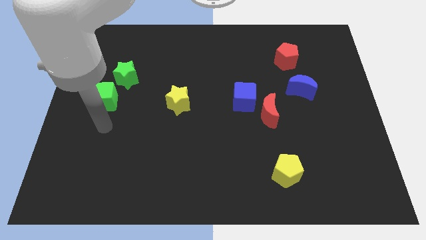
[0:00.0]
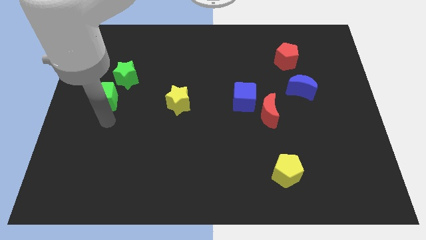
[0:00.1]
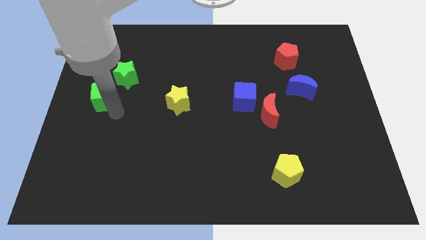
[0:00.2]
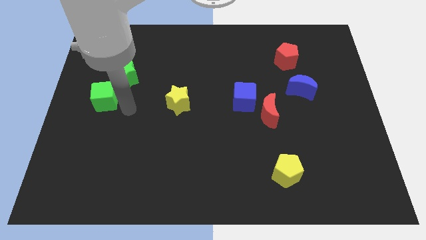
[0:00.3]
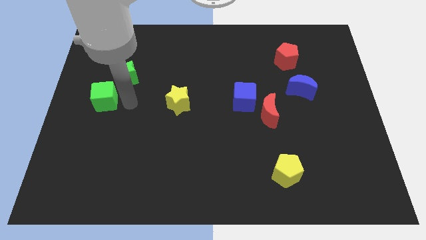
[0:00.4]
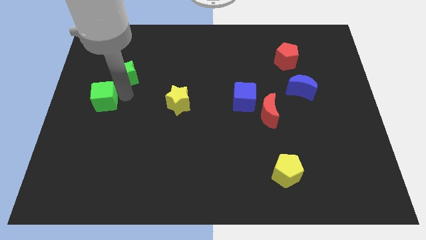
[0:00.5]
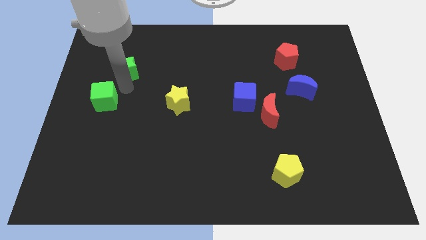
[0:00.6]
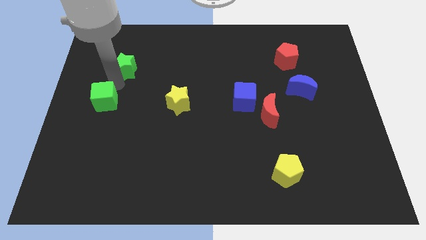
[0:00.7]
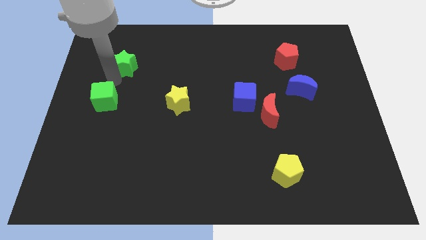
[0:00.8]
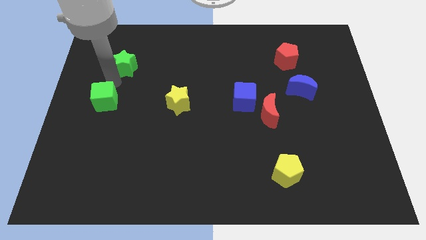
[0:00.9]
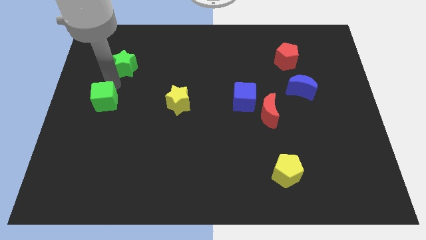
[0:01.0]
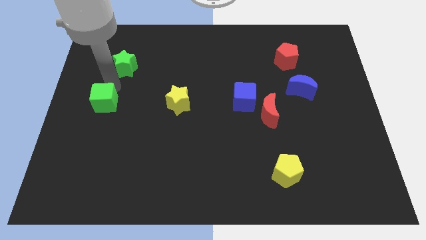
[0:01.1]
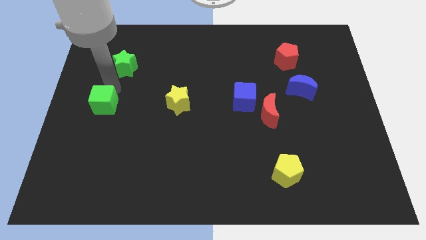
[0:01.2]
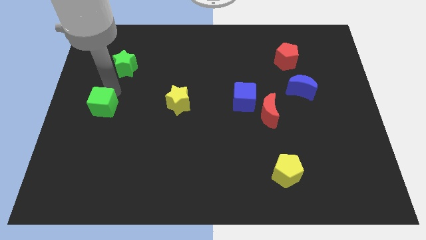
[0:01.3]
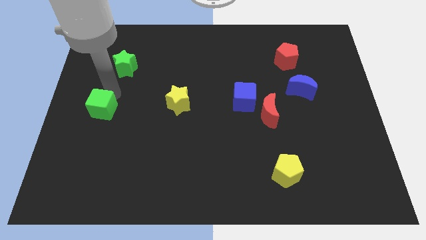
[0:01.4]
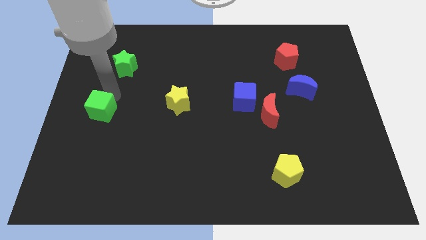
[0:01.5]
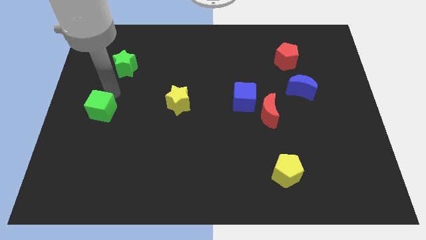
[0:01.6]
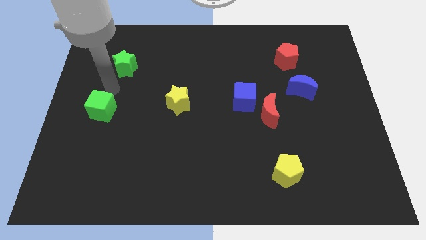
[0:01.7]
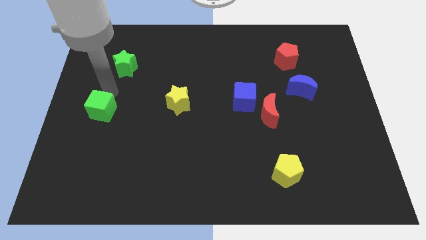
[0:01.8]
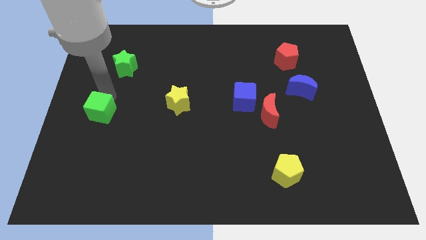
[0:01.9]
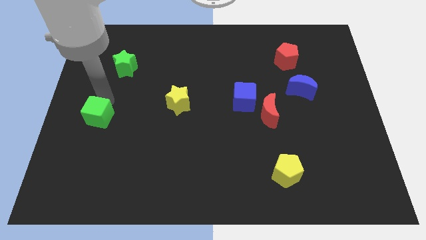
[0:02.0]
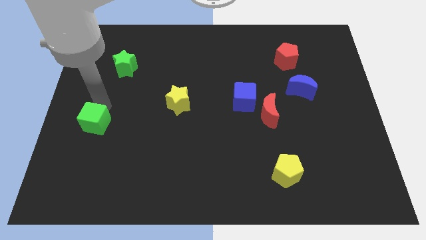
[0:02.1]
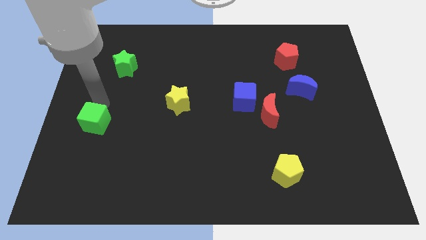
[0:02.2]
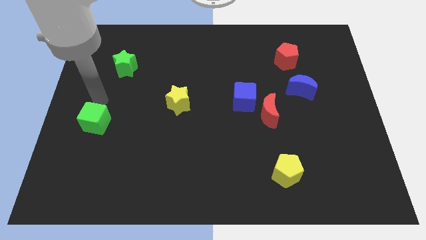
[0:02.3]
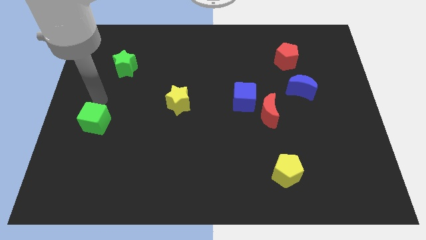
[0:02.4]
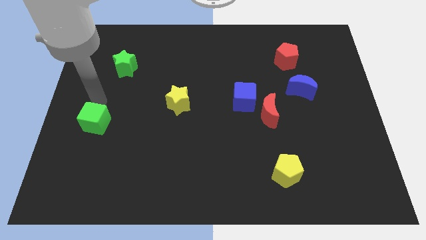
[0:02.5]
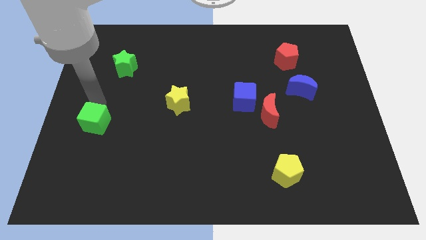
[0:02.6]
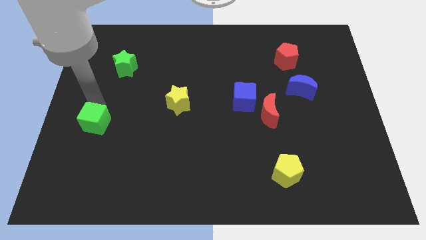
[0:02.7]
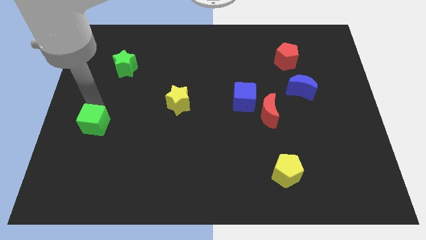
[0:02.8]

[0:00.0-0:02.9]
slightly push the green cube down

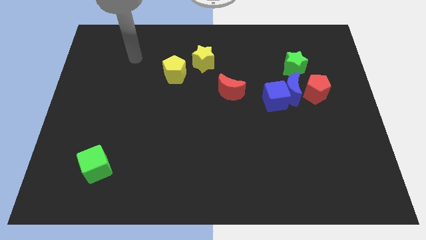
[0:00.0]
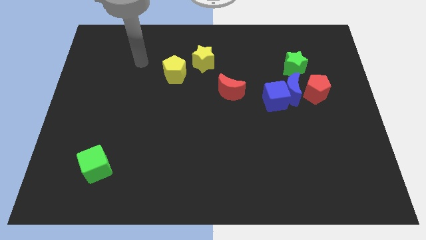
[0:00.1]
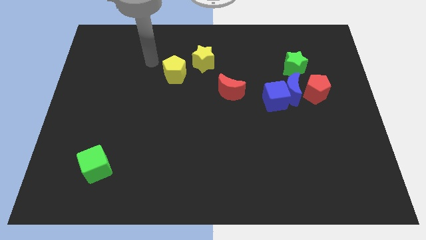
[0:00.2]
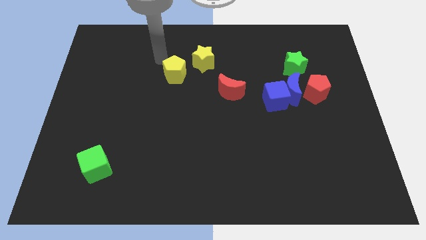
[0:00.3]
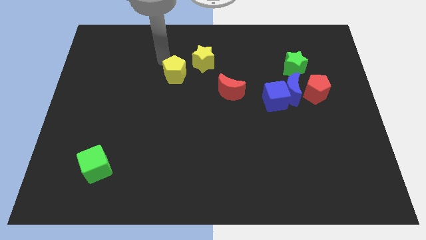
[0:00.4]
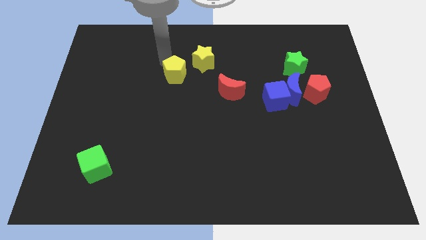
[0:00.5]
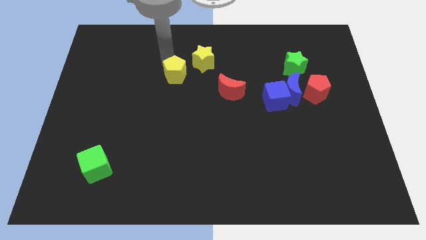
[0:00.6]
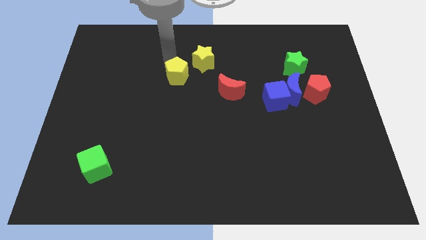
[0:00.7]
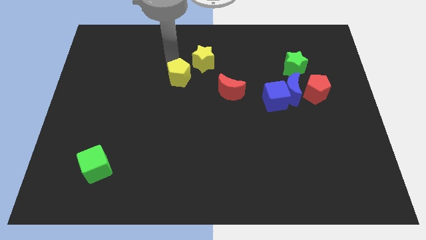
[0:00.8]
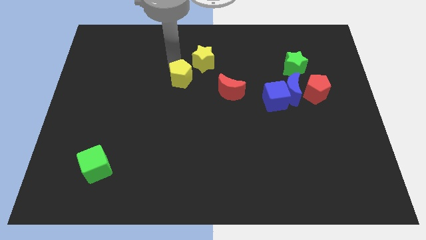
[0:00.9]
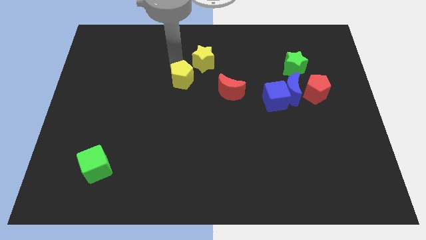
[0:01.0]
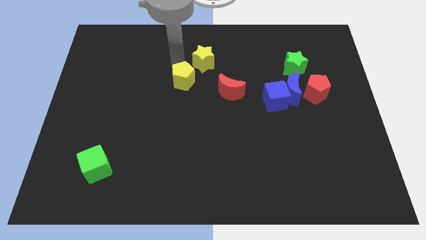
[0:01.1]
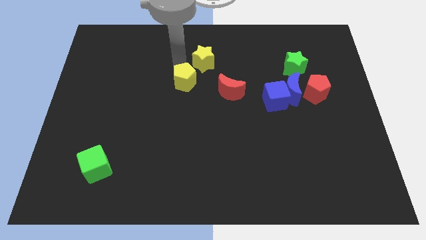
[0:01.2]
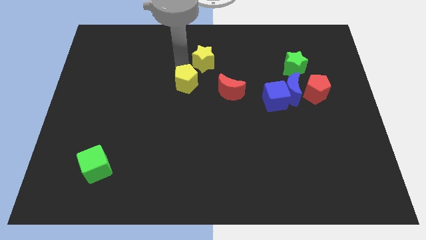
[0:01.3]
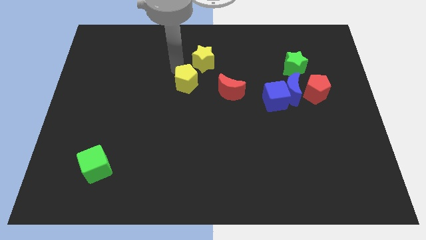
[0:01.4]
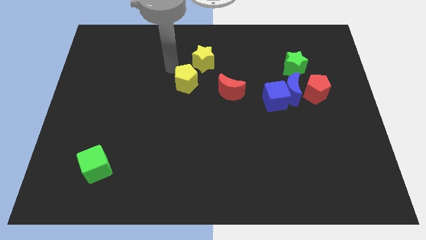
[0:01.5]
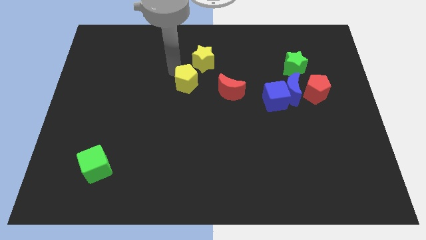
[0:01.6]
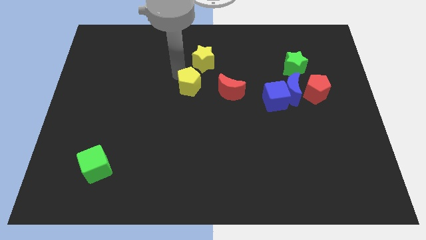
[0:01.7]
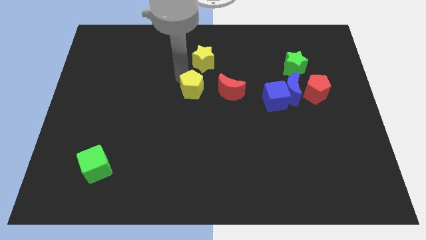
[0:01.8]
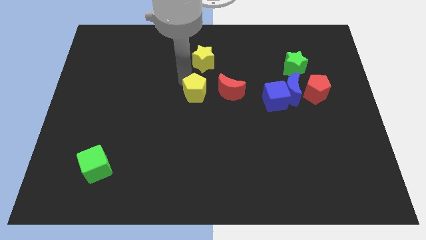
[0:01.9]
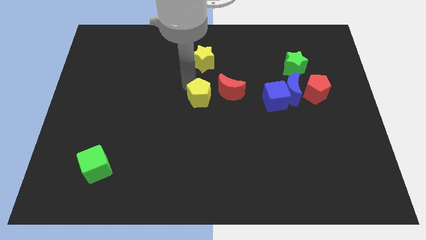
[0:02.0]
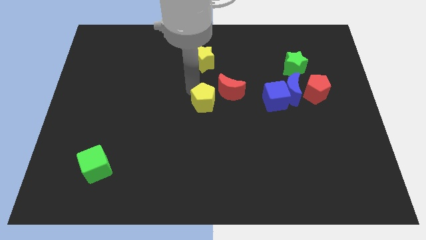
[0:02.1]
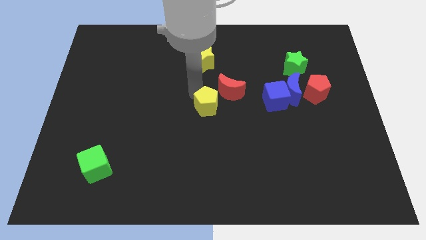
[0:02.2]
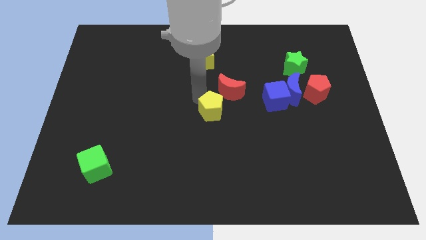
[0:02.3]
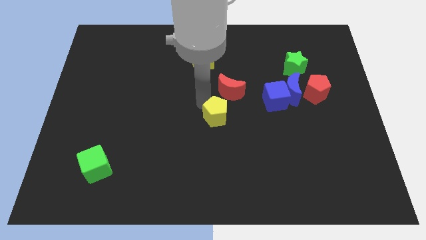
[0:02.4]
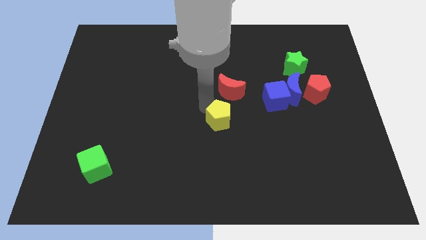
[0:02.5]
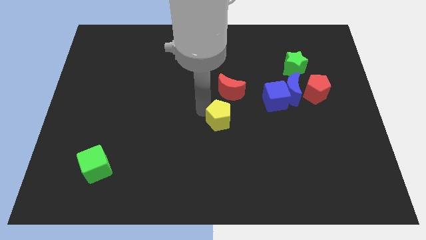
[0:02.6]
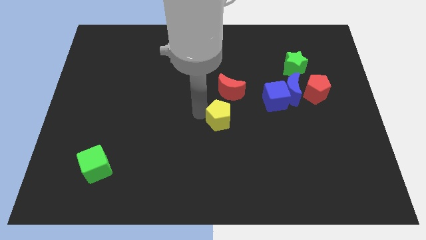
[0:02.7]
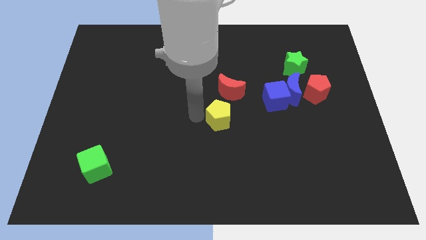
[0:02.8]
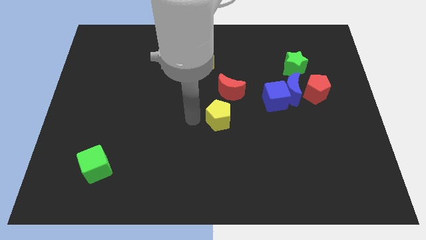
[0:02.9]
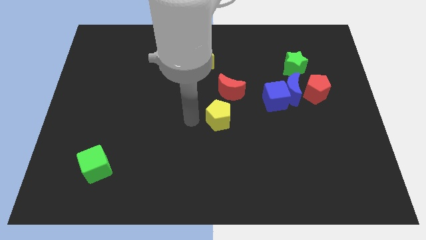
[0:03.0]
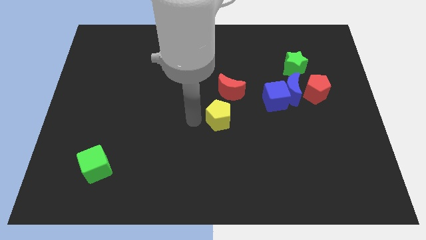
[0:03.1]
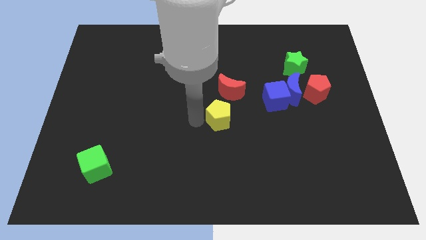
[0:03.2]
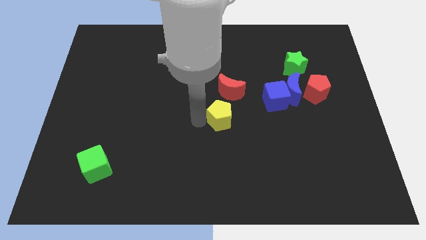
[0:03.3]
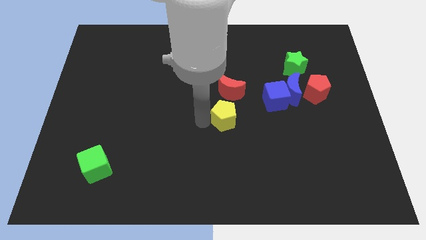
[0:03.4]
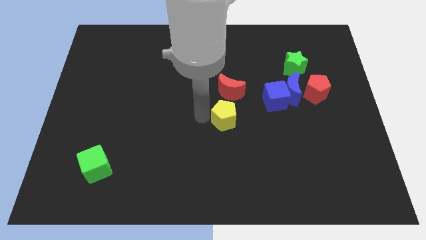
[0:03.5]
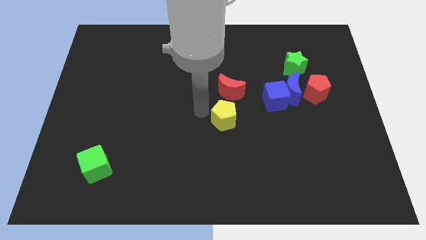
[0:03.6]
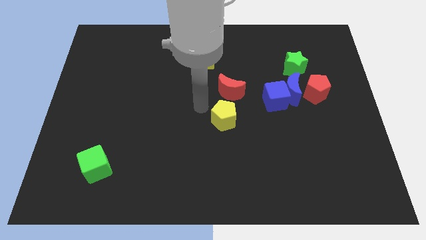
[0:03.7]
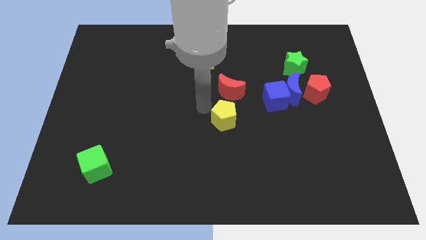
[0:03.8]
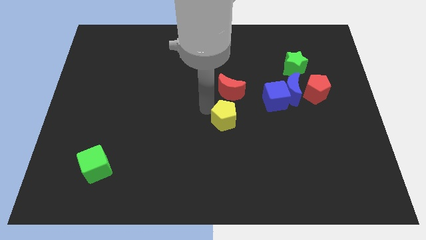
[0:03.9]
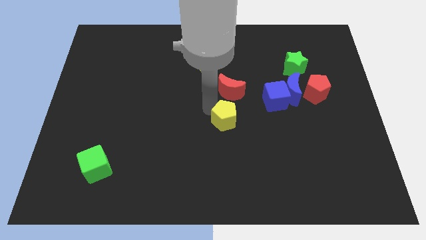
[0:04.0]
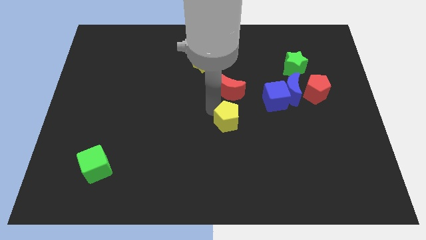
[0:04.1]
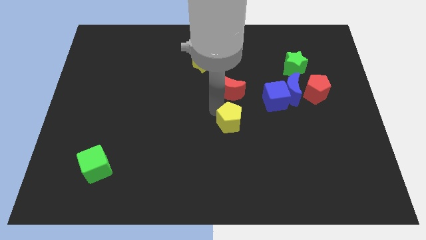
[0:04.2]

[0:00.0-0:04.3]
push the yellow pentagon down and then right

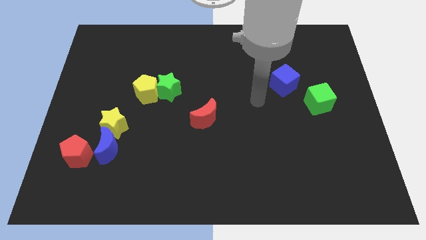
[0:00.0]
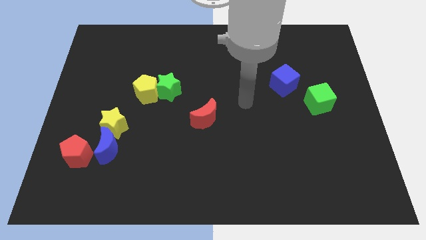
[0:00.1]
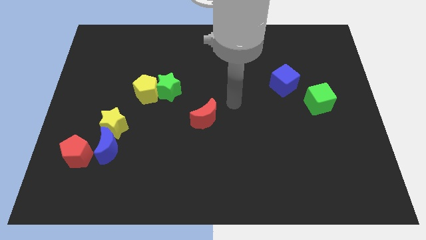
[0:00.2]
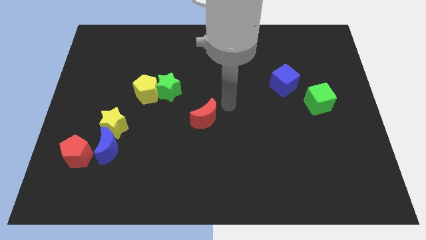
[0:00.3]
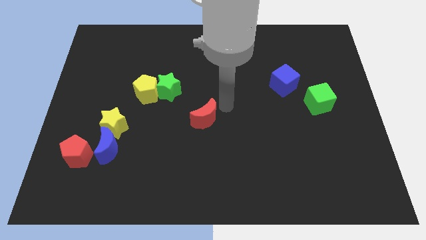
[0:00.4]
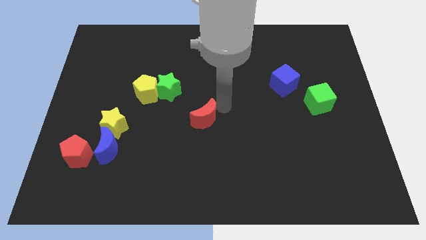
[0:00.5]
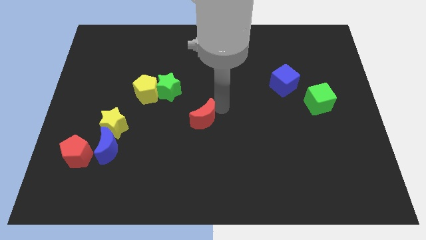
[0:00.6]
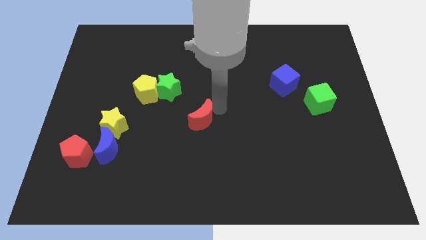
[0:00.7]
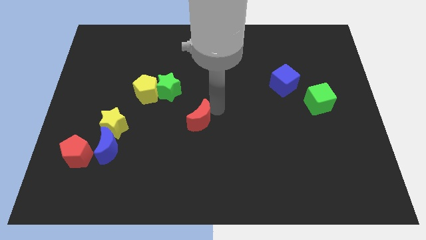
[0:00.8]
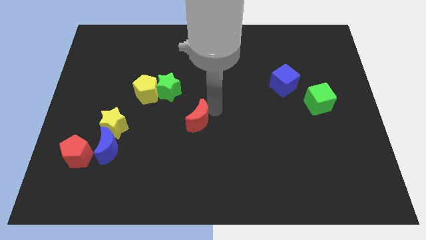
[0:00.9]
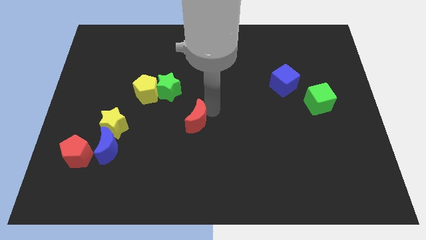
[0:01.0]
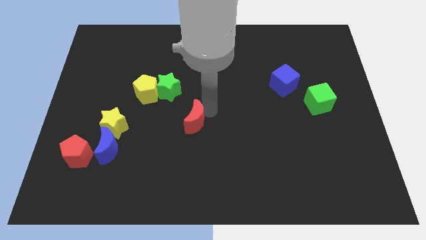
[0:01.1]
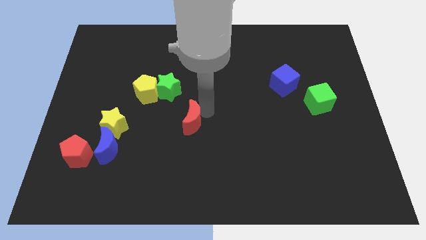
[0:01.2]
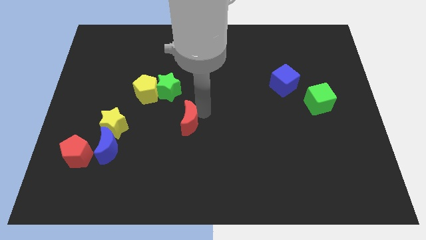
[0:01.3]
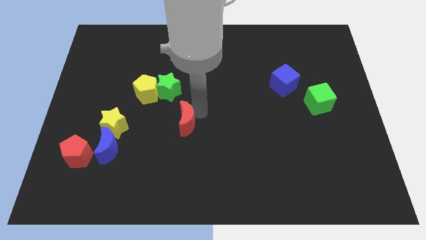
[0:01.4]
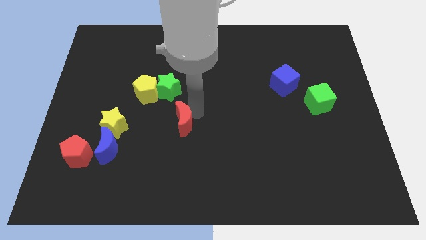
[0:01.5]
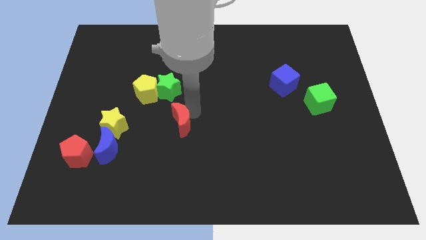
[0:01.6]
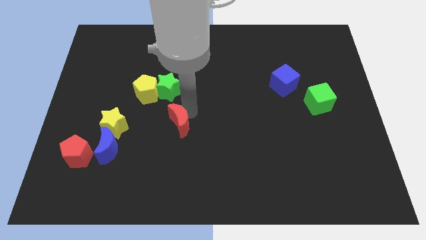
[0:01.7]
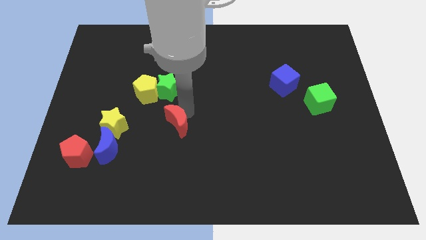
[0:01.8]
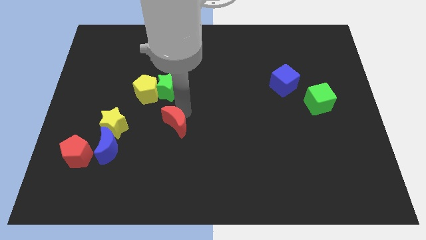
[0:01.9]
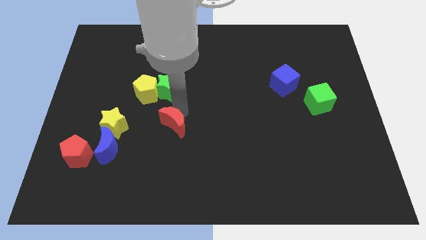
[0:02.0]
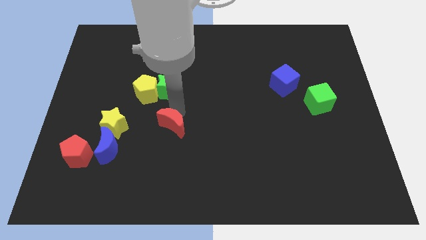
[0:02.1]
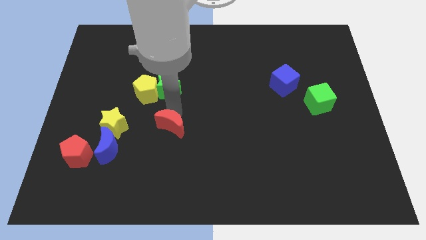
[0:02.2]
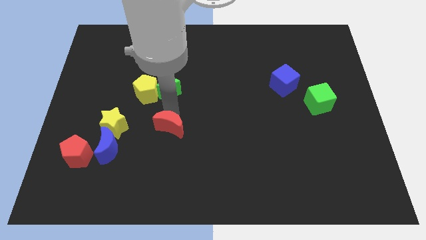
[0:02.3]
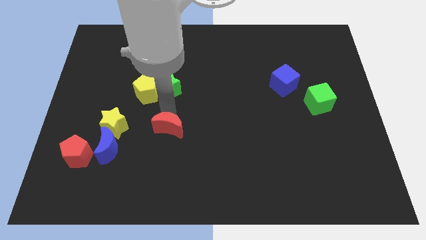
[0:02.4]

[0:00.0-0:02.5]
slightly move the red moon downwards and to the left
